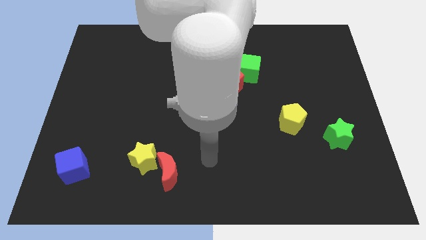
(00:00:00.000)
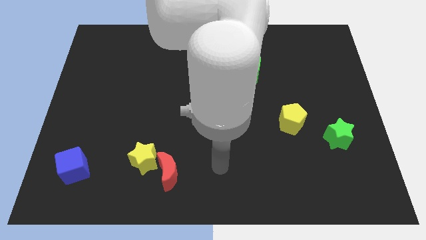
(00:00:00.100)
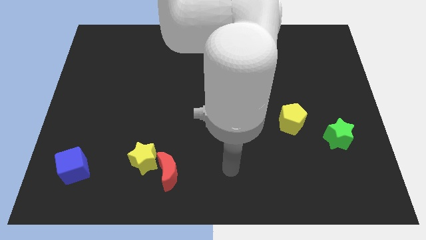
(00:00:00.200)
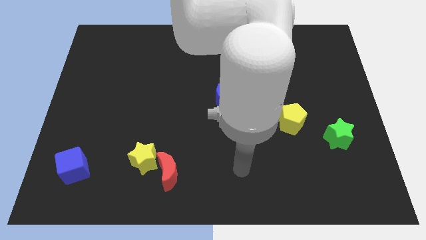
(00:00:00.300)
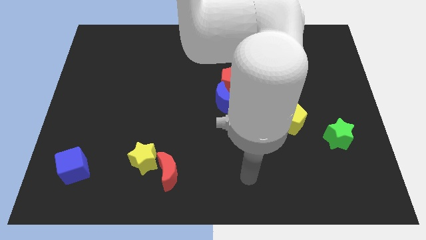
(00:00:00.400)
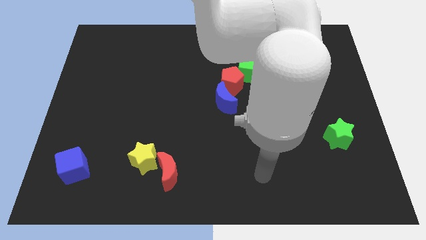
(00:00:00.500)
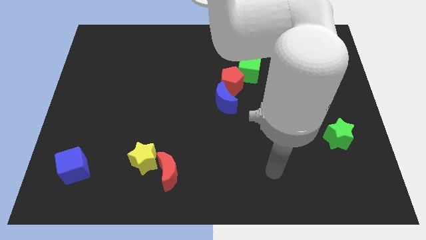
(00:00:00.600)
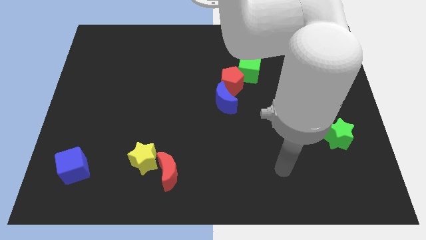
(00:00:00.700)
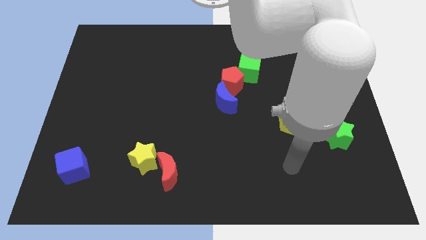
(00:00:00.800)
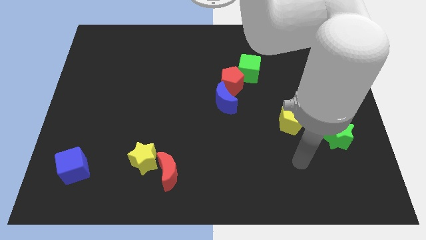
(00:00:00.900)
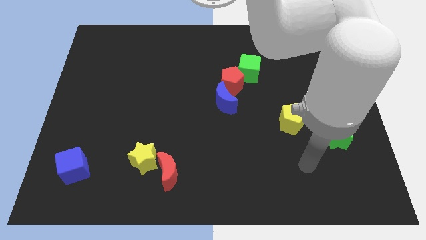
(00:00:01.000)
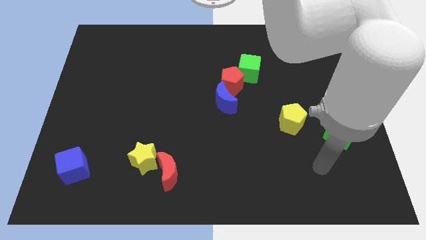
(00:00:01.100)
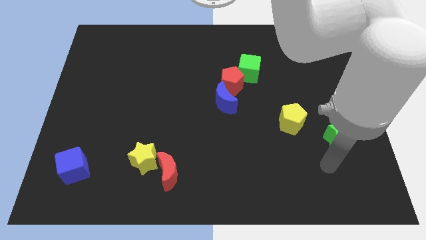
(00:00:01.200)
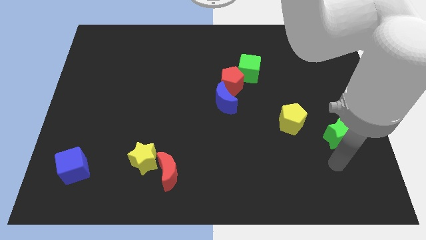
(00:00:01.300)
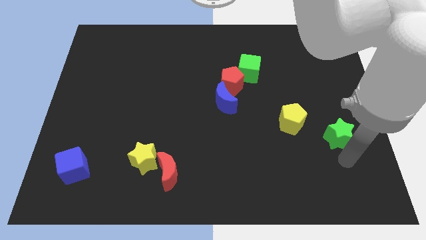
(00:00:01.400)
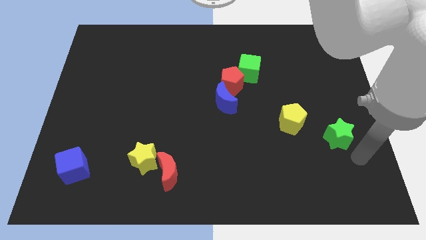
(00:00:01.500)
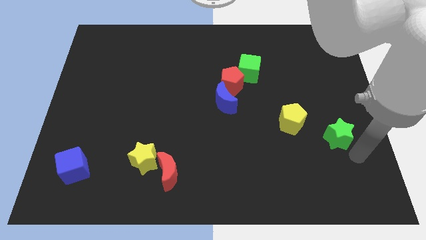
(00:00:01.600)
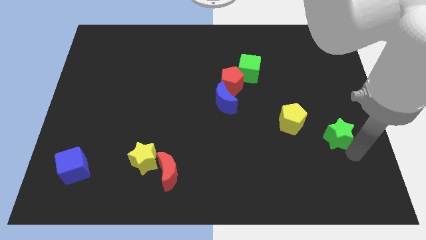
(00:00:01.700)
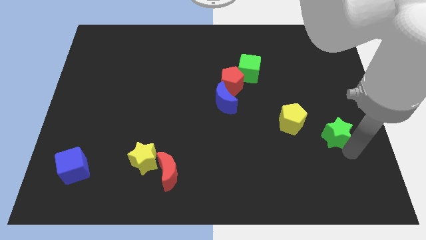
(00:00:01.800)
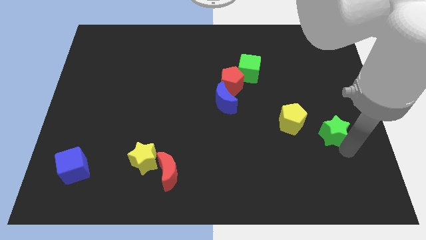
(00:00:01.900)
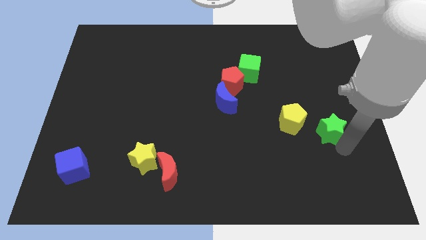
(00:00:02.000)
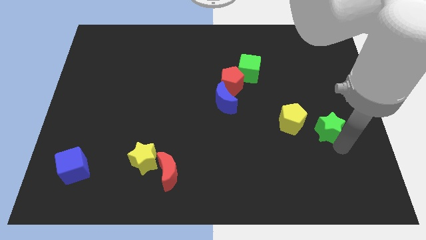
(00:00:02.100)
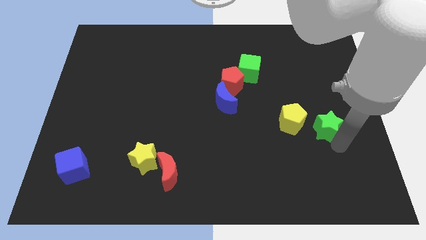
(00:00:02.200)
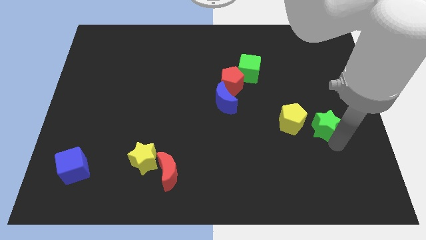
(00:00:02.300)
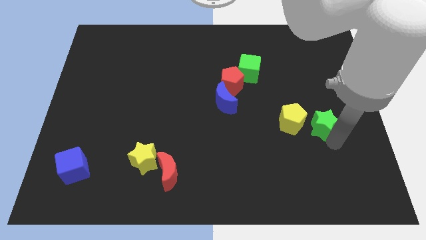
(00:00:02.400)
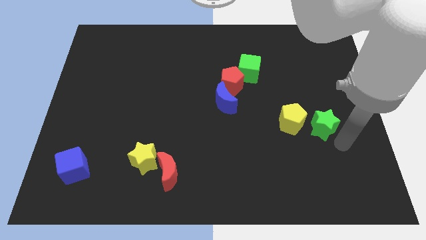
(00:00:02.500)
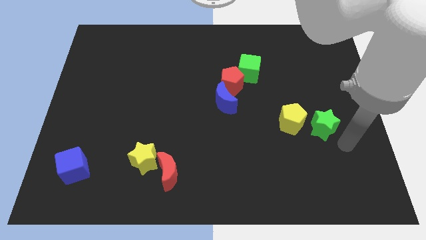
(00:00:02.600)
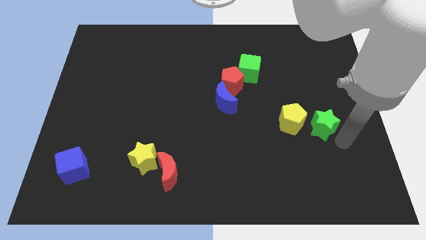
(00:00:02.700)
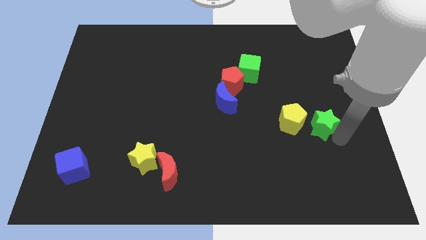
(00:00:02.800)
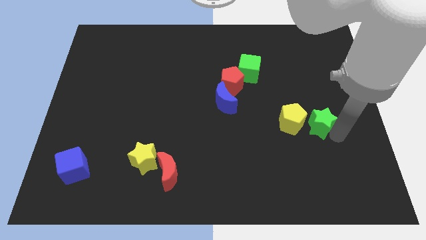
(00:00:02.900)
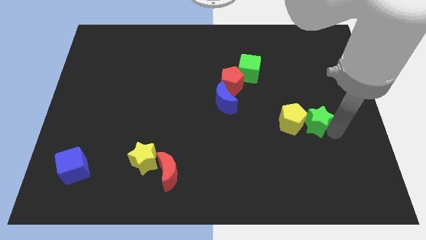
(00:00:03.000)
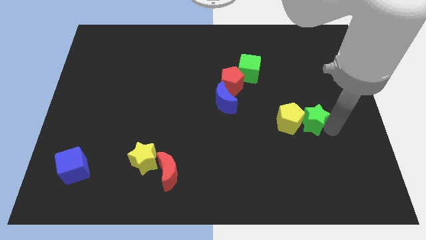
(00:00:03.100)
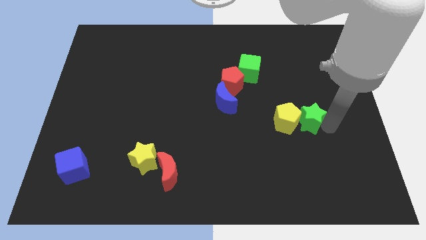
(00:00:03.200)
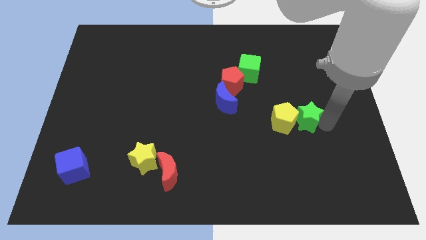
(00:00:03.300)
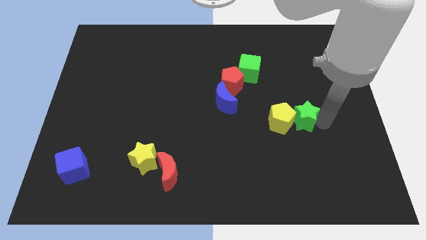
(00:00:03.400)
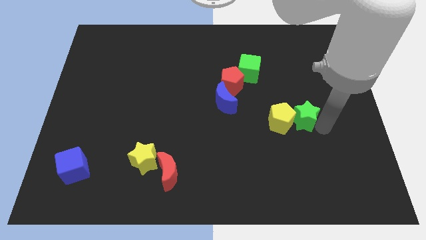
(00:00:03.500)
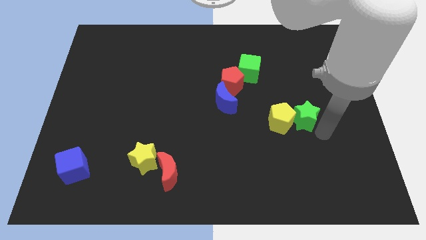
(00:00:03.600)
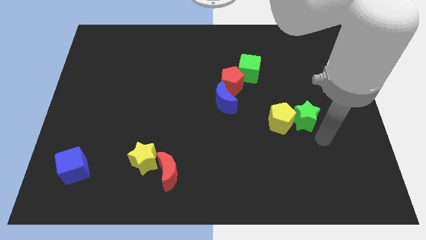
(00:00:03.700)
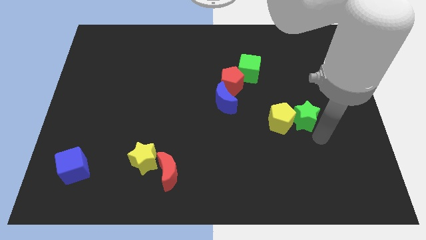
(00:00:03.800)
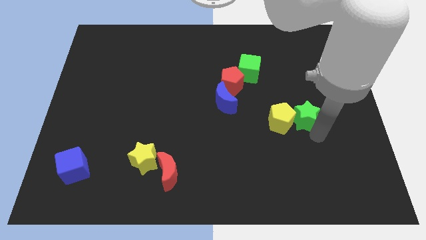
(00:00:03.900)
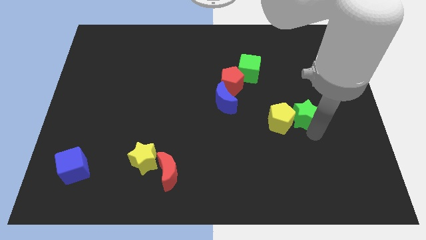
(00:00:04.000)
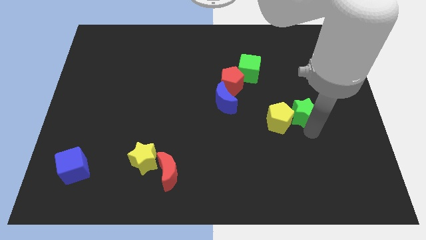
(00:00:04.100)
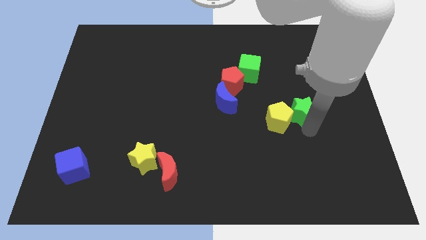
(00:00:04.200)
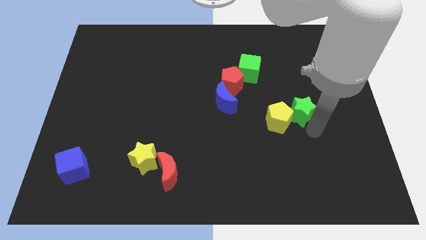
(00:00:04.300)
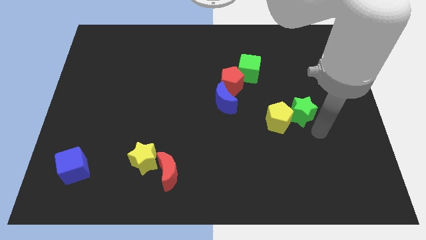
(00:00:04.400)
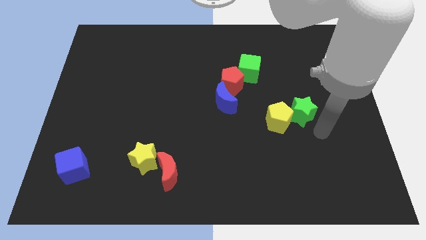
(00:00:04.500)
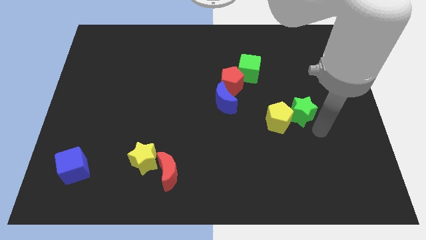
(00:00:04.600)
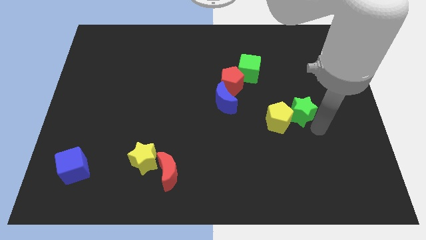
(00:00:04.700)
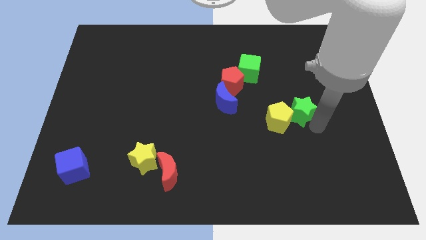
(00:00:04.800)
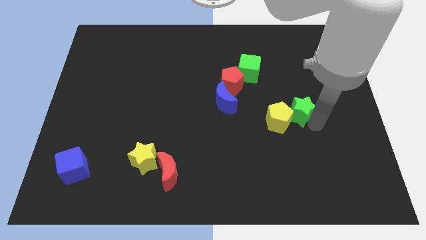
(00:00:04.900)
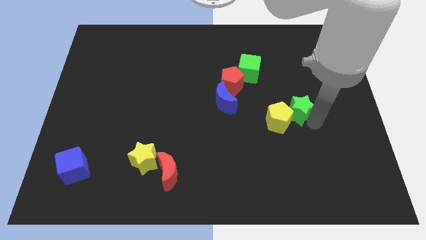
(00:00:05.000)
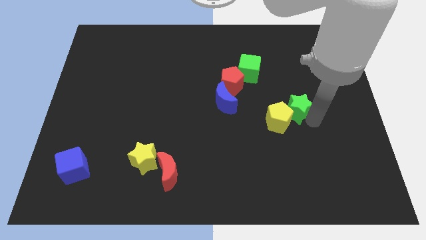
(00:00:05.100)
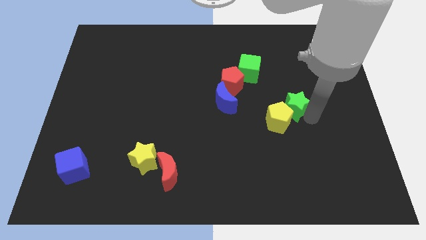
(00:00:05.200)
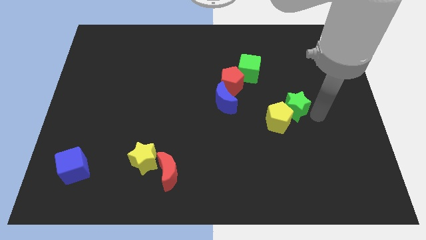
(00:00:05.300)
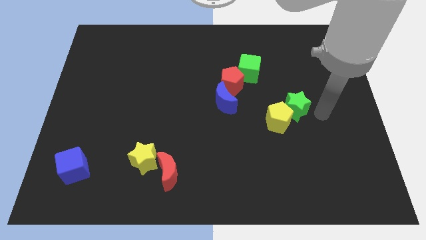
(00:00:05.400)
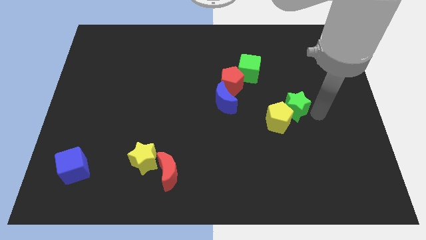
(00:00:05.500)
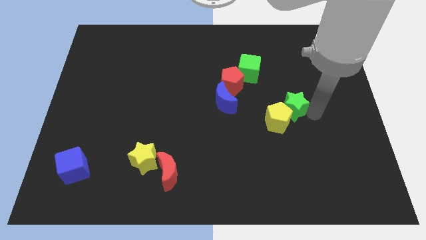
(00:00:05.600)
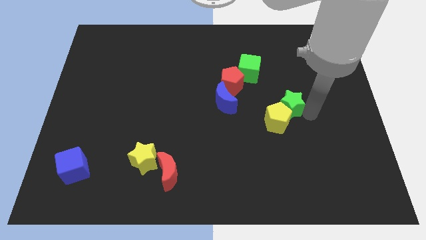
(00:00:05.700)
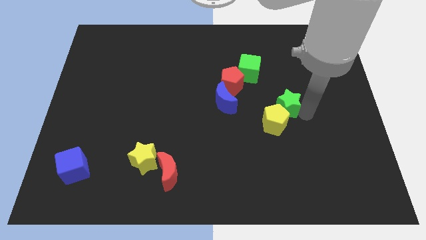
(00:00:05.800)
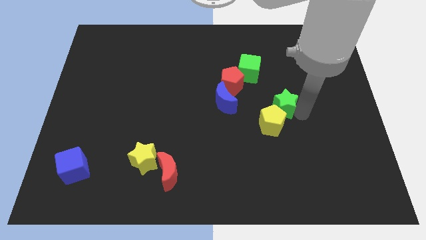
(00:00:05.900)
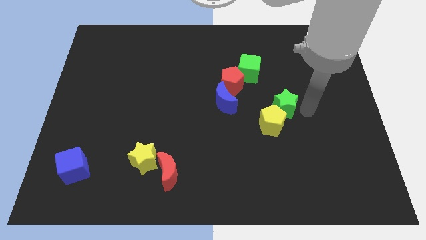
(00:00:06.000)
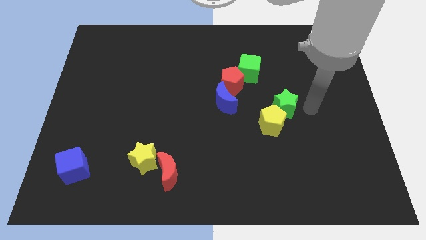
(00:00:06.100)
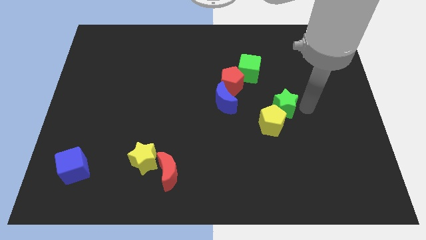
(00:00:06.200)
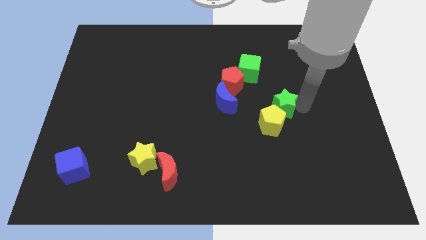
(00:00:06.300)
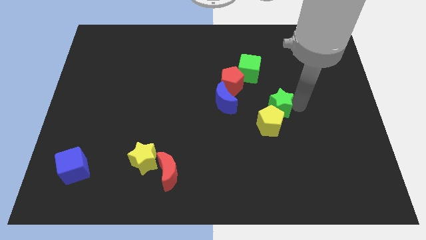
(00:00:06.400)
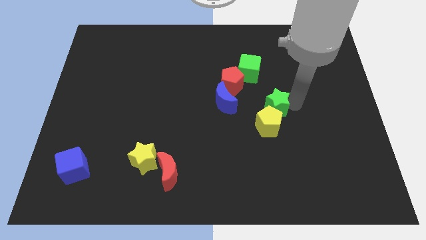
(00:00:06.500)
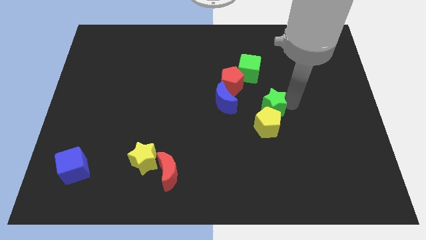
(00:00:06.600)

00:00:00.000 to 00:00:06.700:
put the green star to the top left of the yellow pentagon
